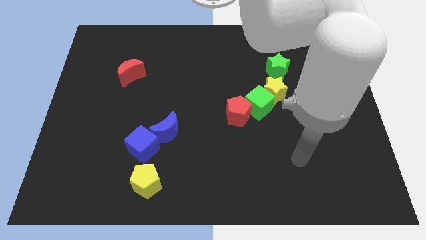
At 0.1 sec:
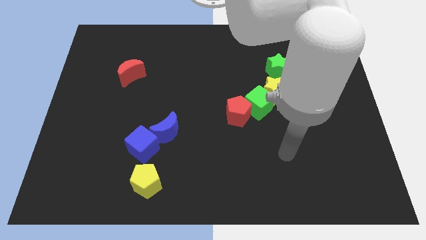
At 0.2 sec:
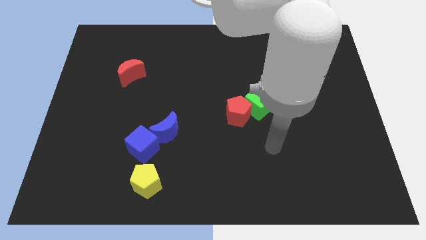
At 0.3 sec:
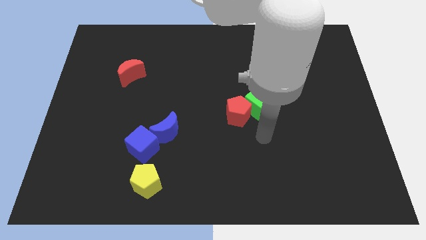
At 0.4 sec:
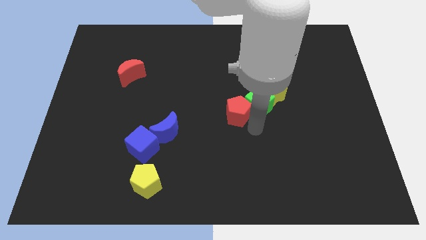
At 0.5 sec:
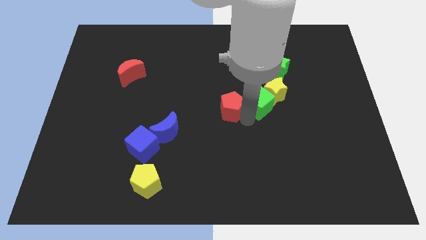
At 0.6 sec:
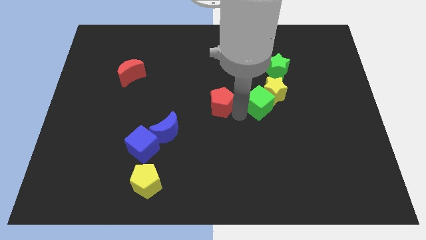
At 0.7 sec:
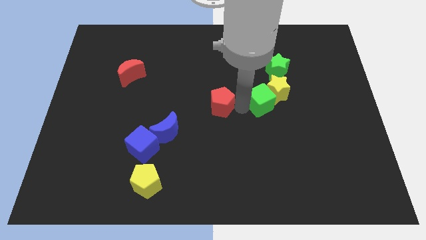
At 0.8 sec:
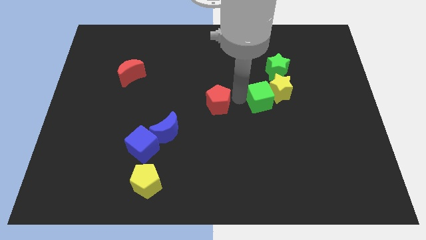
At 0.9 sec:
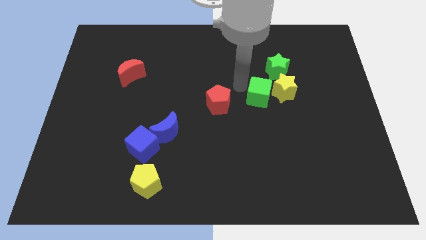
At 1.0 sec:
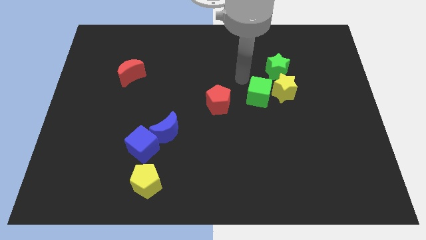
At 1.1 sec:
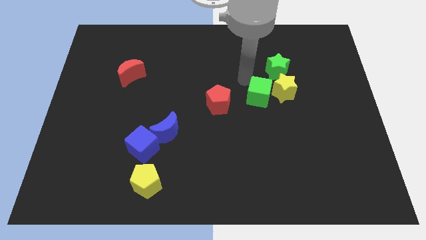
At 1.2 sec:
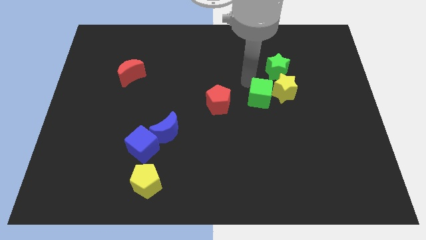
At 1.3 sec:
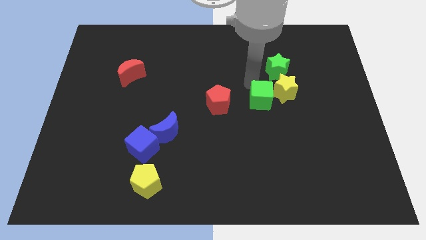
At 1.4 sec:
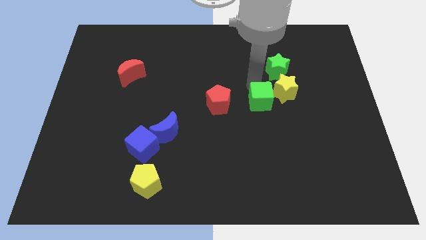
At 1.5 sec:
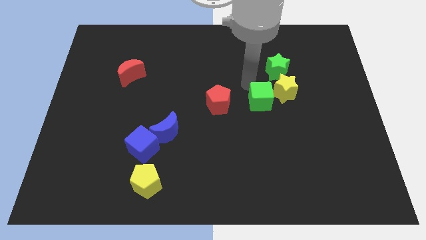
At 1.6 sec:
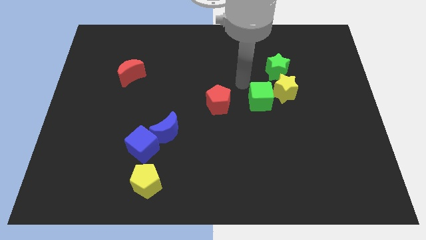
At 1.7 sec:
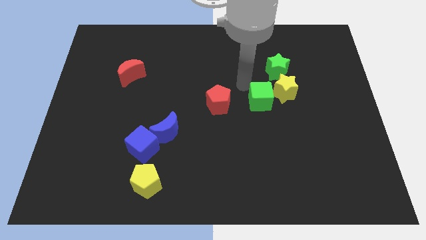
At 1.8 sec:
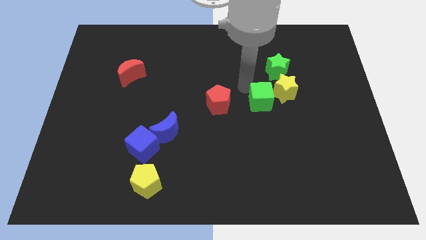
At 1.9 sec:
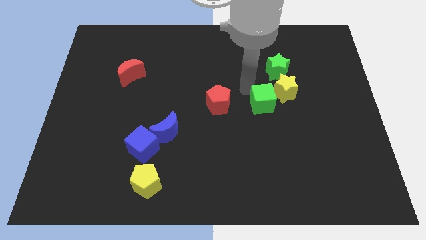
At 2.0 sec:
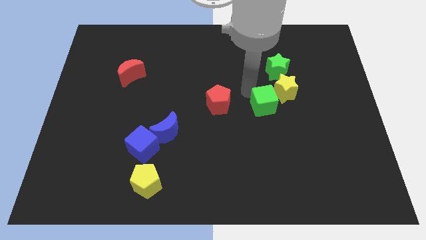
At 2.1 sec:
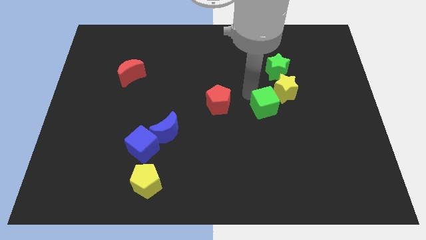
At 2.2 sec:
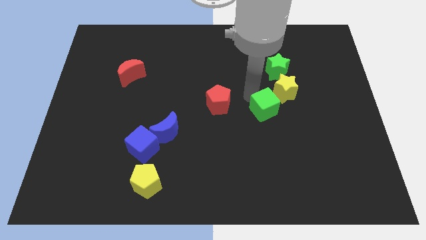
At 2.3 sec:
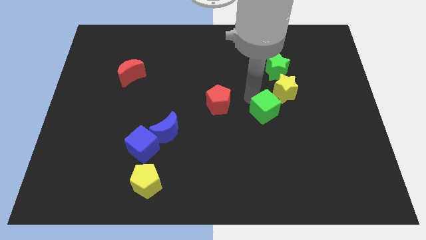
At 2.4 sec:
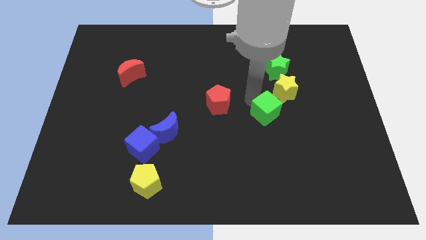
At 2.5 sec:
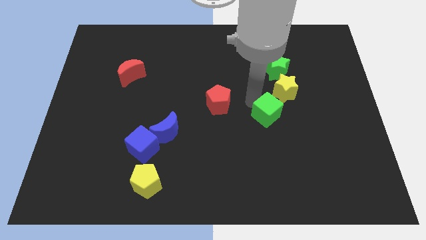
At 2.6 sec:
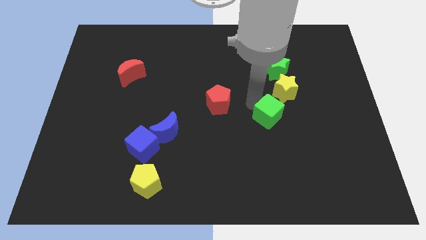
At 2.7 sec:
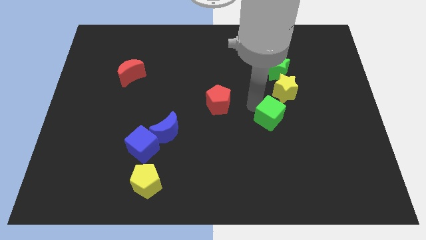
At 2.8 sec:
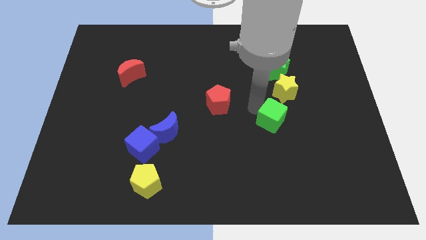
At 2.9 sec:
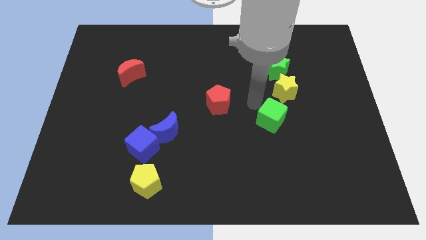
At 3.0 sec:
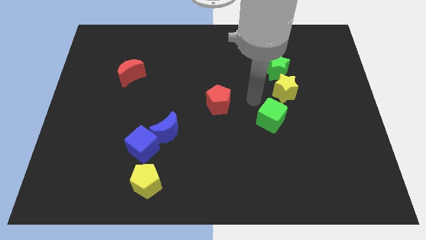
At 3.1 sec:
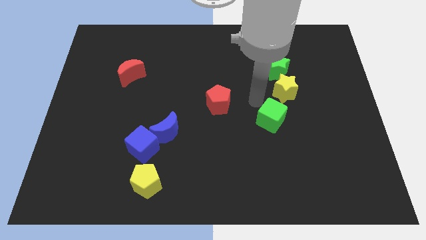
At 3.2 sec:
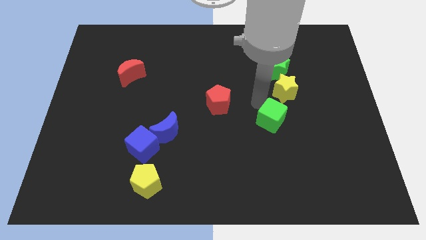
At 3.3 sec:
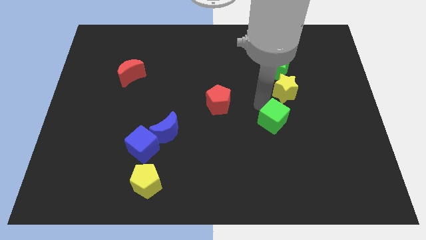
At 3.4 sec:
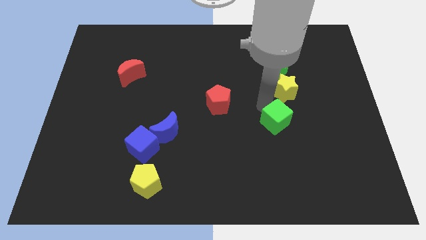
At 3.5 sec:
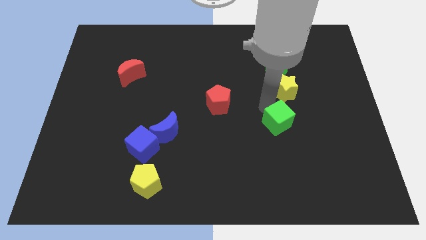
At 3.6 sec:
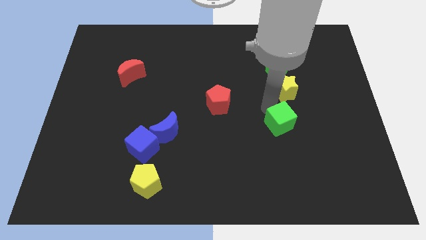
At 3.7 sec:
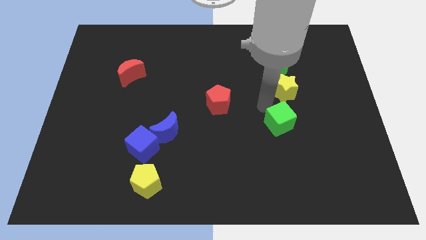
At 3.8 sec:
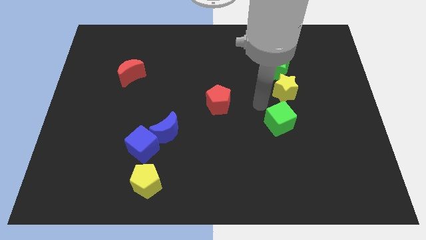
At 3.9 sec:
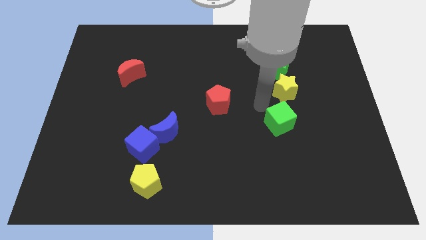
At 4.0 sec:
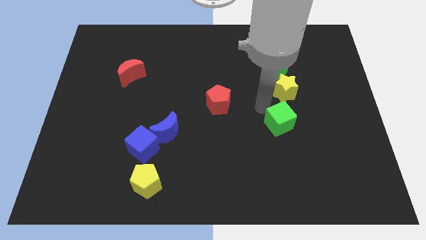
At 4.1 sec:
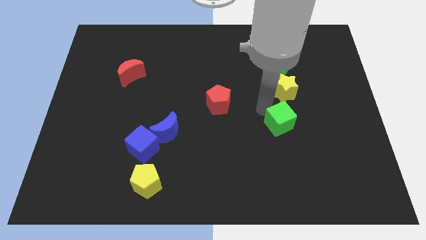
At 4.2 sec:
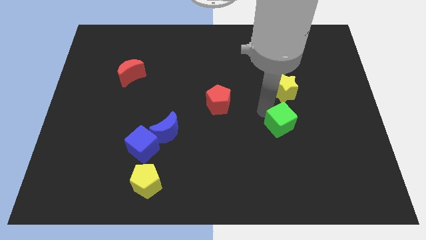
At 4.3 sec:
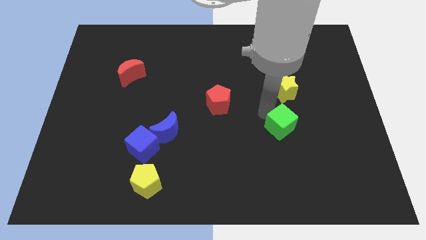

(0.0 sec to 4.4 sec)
move the green cube away from the yellow star and red pentagon

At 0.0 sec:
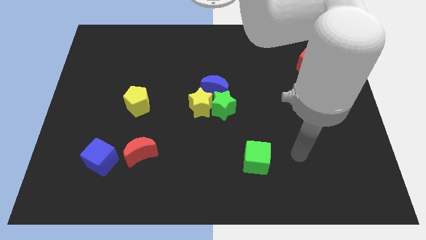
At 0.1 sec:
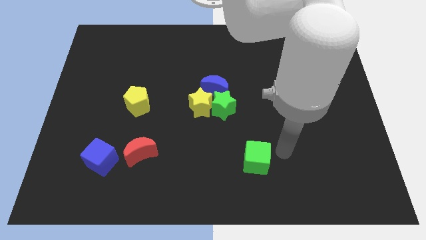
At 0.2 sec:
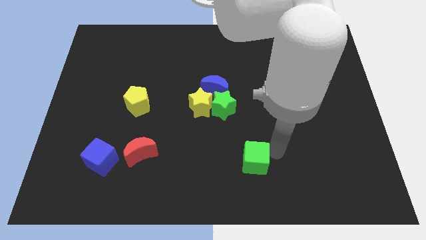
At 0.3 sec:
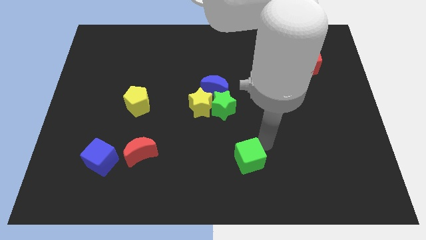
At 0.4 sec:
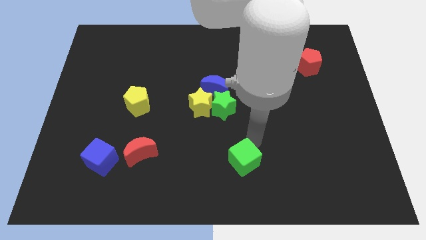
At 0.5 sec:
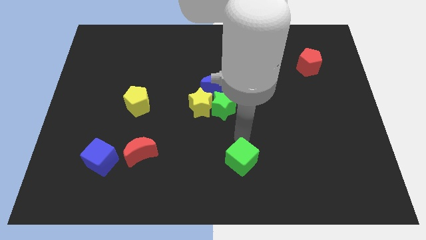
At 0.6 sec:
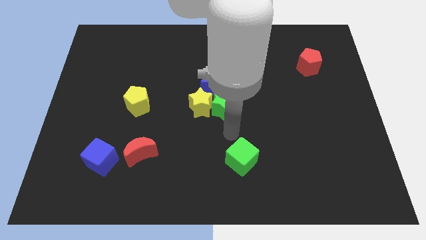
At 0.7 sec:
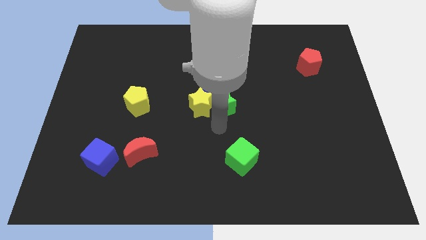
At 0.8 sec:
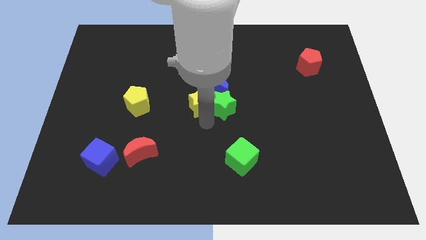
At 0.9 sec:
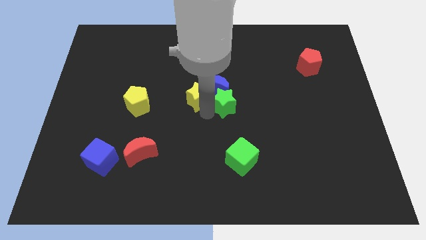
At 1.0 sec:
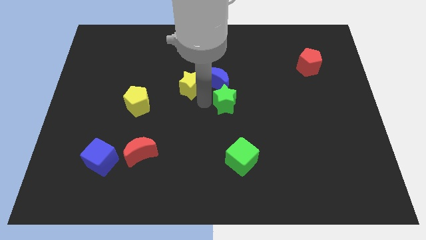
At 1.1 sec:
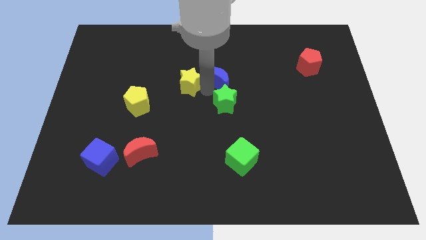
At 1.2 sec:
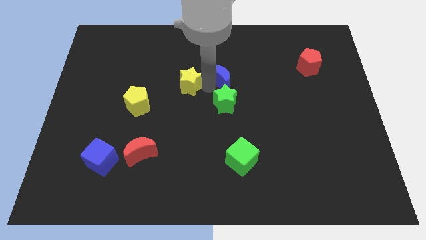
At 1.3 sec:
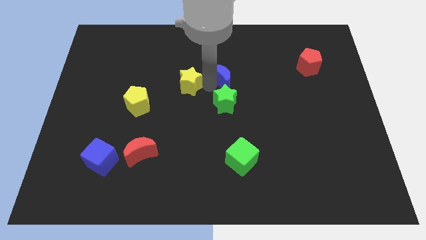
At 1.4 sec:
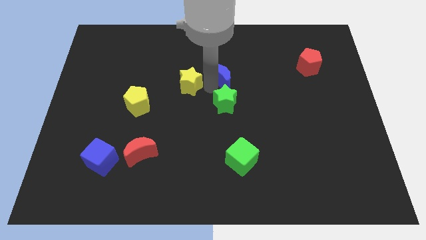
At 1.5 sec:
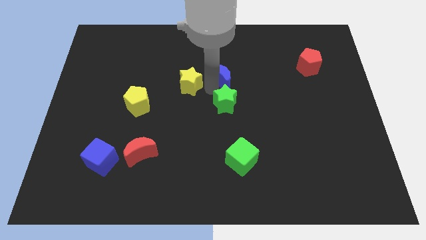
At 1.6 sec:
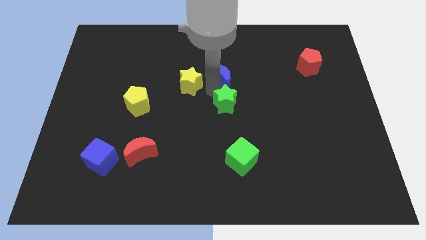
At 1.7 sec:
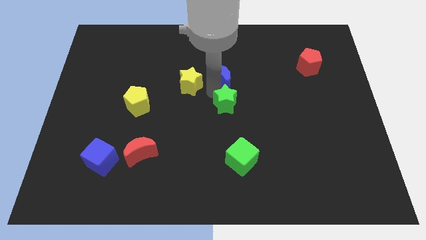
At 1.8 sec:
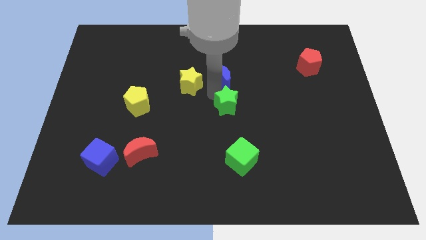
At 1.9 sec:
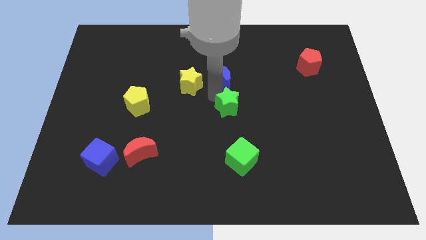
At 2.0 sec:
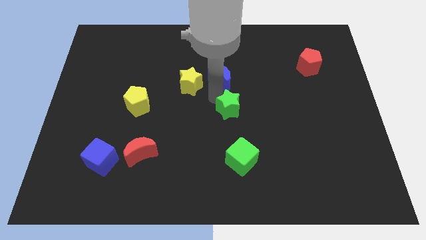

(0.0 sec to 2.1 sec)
separate the green star from the yellow star and blue moon

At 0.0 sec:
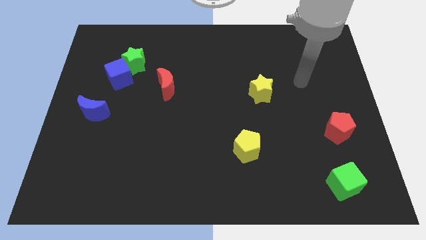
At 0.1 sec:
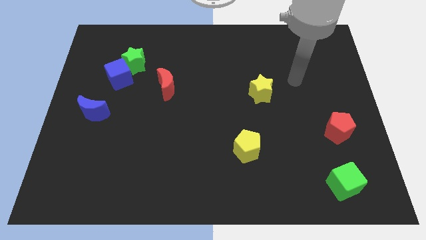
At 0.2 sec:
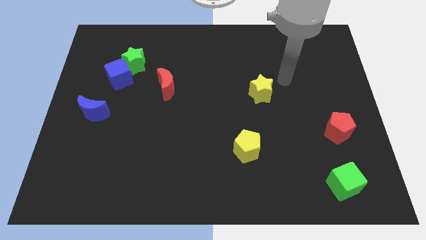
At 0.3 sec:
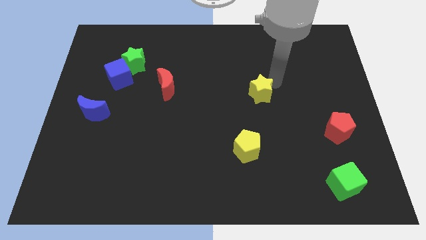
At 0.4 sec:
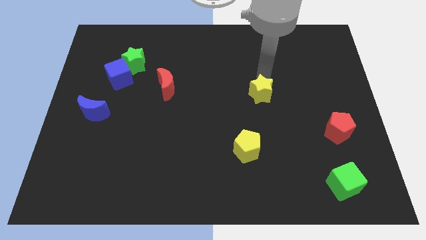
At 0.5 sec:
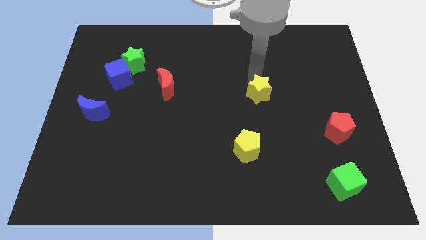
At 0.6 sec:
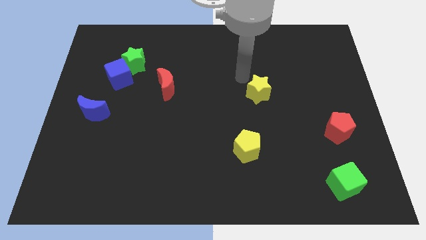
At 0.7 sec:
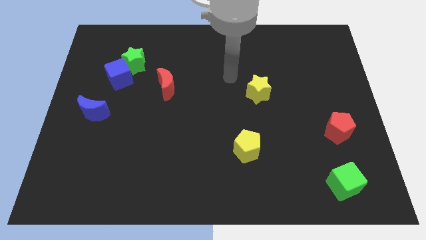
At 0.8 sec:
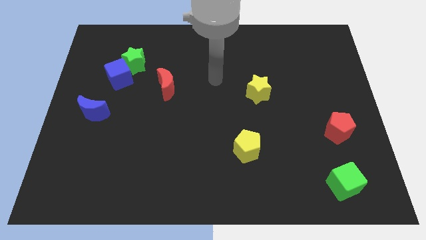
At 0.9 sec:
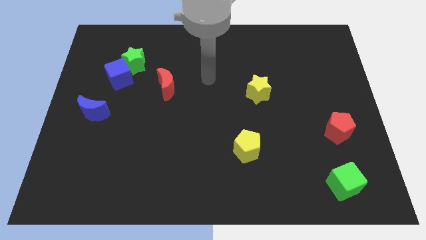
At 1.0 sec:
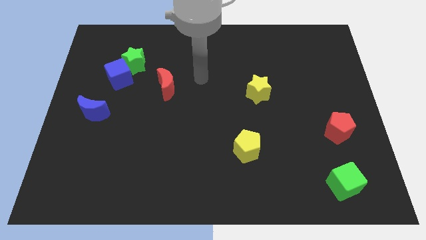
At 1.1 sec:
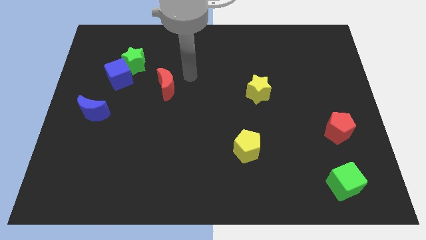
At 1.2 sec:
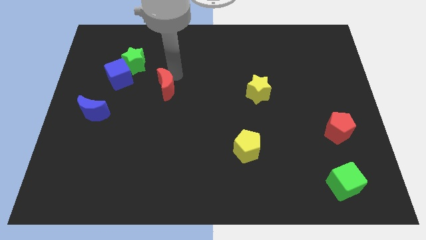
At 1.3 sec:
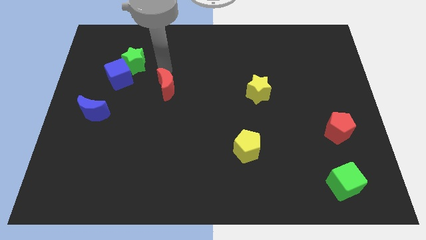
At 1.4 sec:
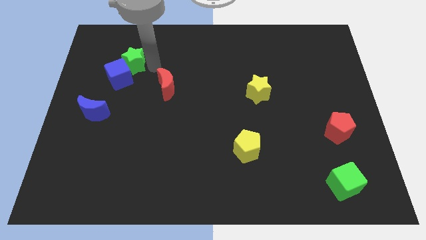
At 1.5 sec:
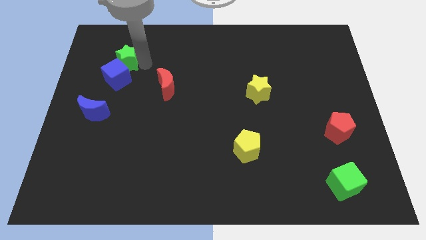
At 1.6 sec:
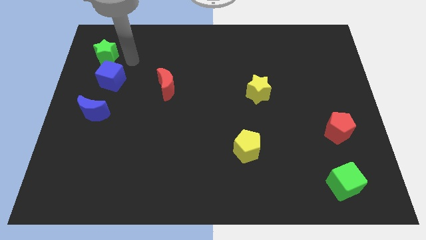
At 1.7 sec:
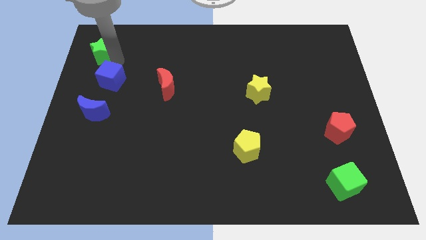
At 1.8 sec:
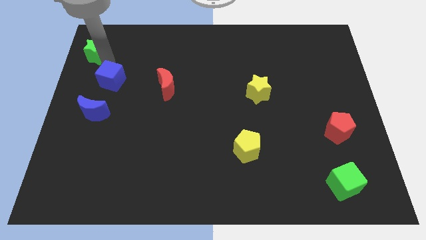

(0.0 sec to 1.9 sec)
separate the blue cube from the green star

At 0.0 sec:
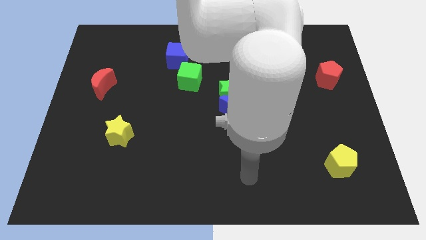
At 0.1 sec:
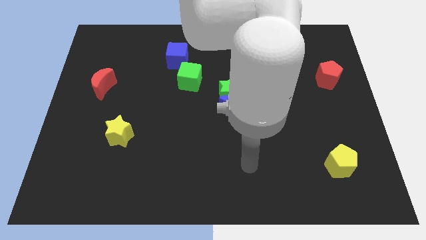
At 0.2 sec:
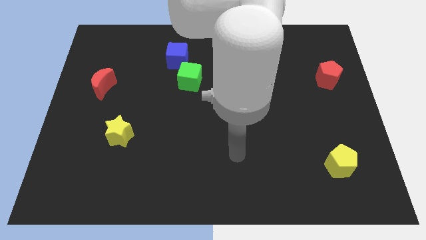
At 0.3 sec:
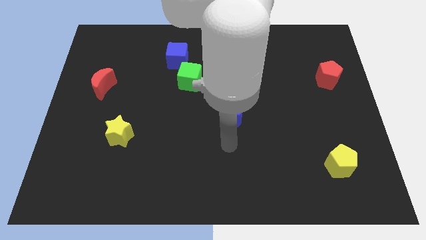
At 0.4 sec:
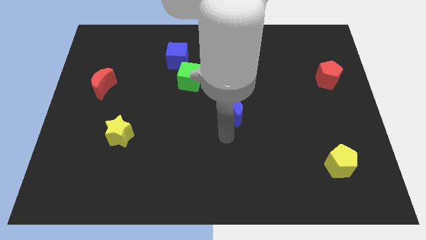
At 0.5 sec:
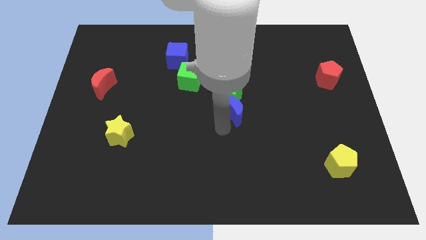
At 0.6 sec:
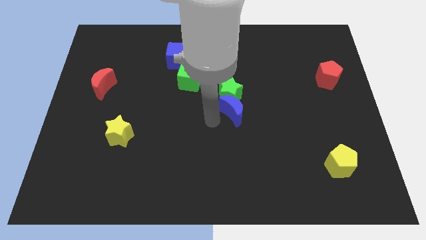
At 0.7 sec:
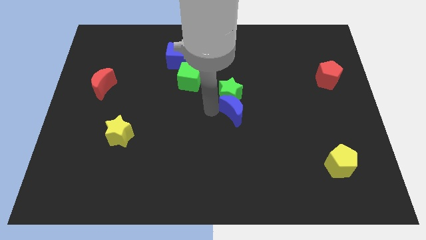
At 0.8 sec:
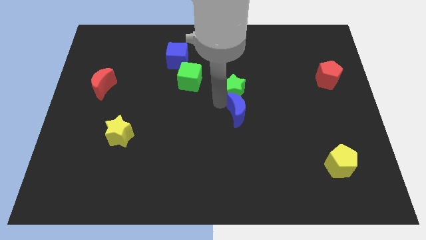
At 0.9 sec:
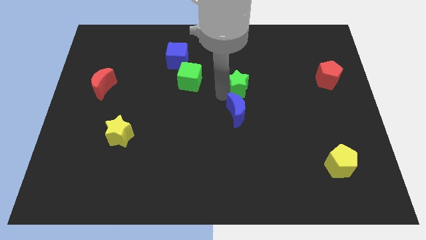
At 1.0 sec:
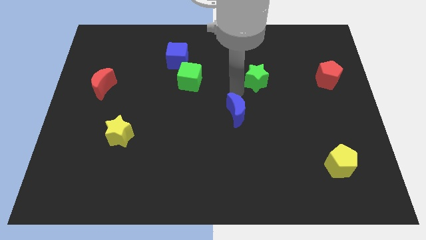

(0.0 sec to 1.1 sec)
pull the blue moon apart from the green star
